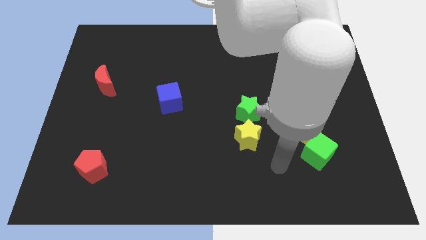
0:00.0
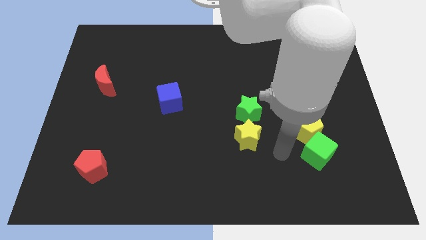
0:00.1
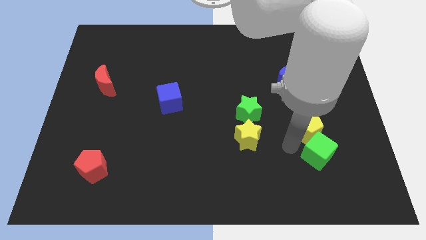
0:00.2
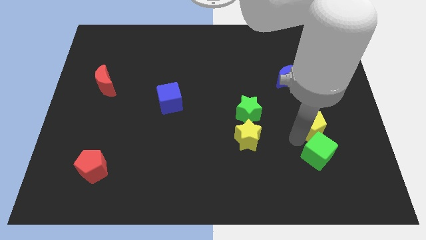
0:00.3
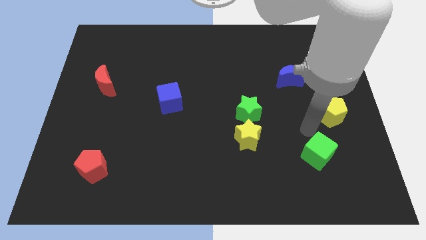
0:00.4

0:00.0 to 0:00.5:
pull the green cube apart from the yellow pentagon

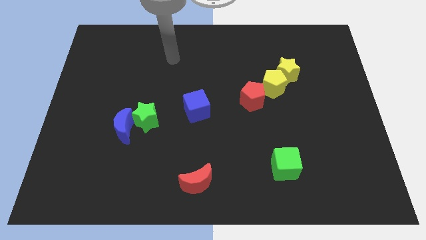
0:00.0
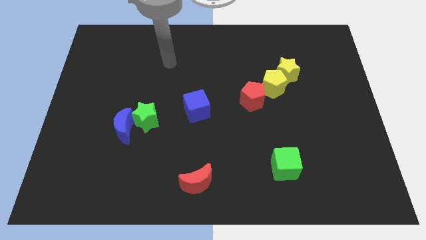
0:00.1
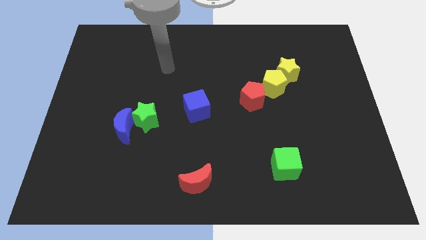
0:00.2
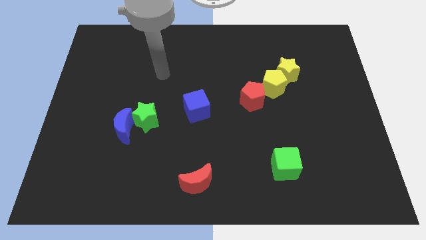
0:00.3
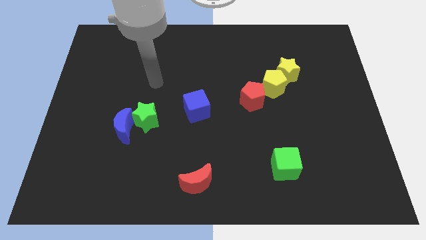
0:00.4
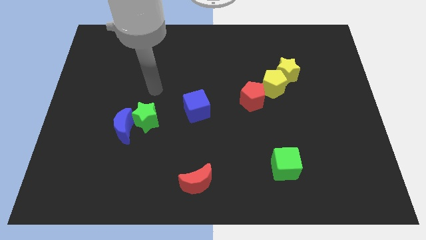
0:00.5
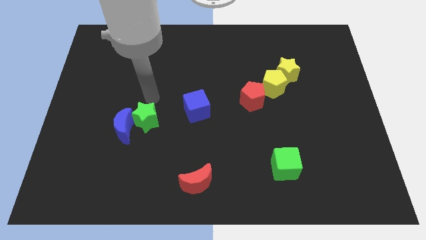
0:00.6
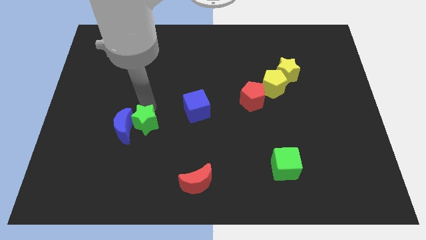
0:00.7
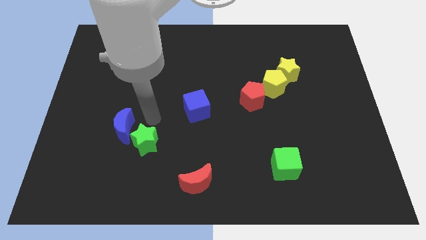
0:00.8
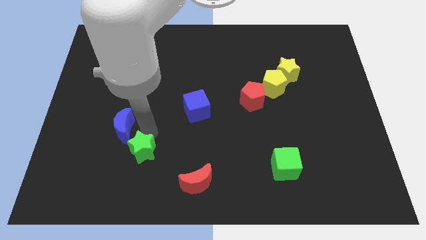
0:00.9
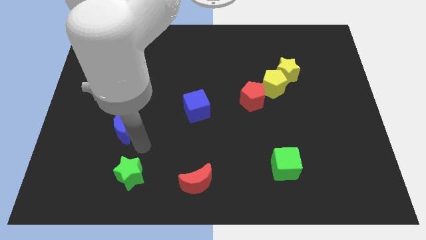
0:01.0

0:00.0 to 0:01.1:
move the blue moon away from the green star

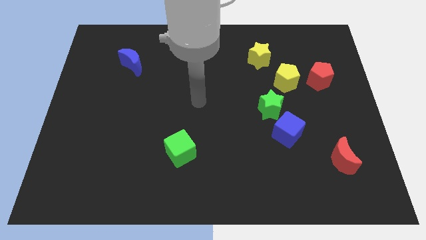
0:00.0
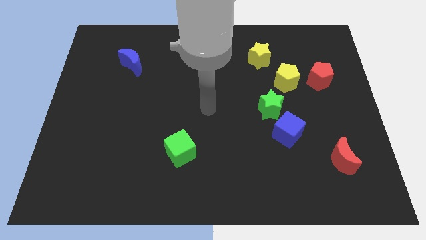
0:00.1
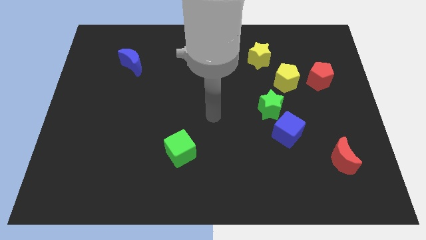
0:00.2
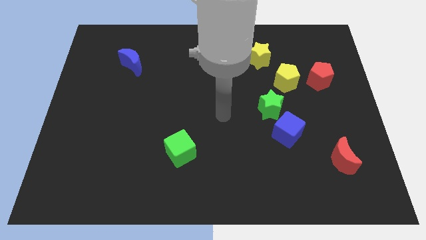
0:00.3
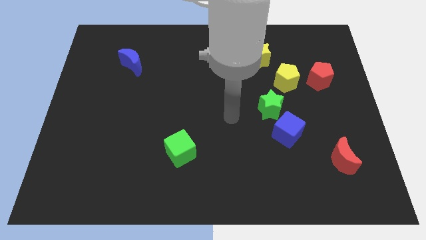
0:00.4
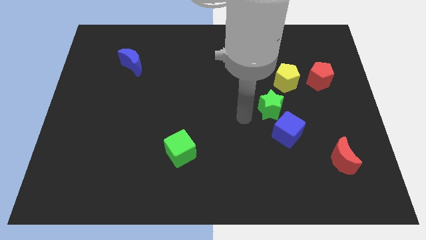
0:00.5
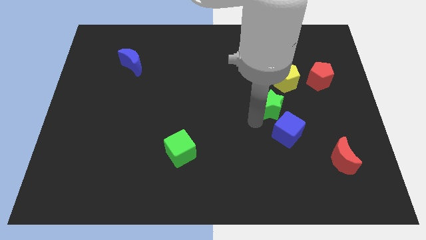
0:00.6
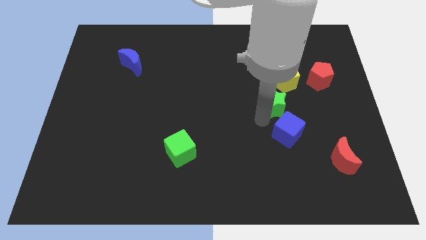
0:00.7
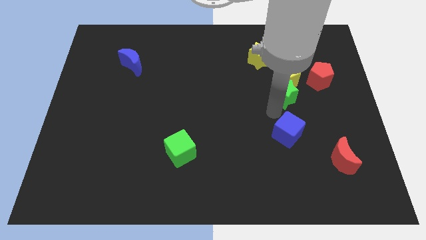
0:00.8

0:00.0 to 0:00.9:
separate the blue cube from the green star

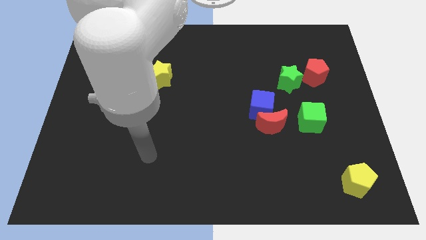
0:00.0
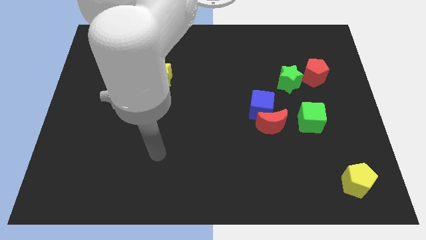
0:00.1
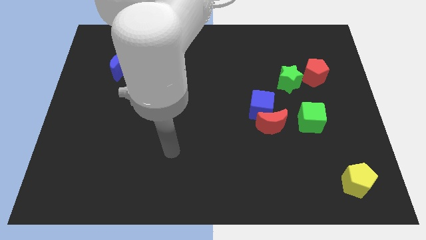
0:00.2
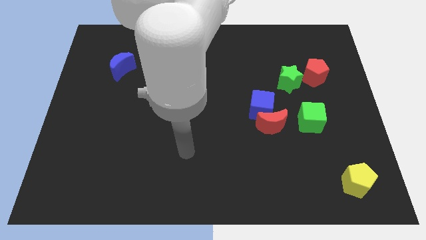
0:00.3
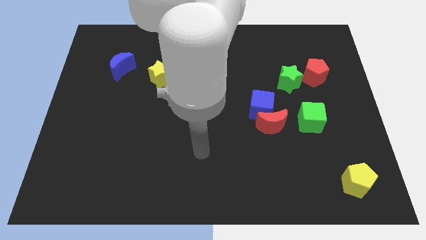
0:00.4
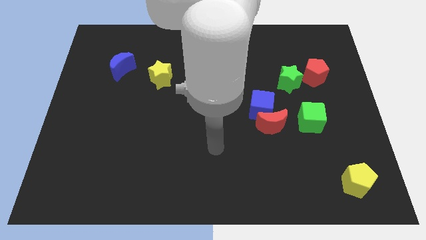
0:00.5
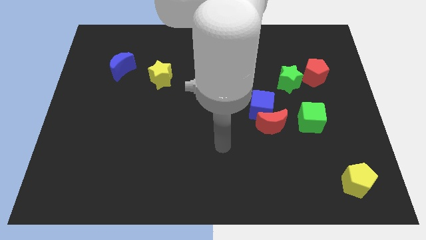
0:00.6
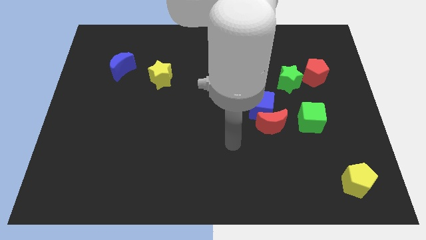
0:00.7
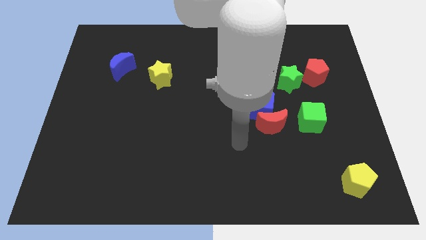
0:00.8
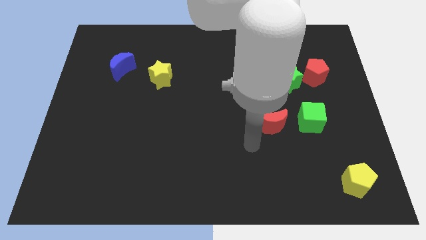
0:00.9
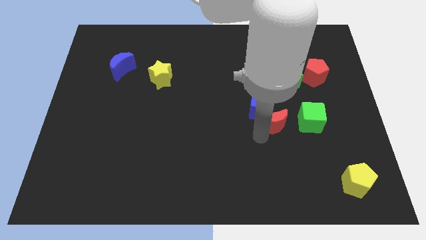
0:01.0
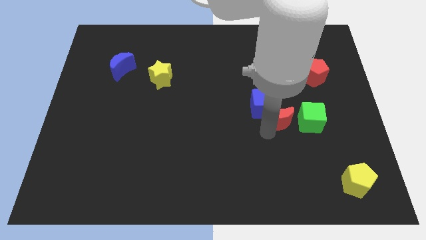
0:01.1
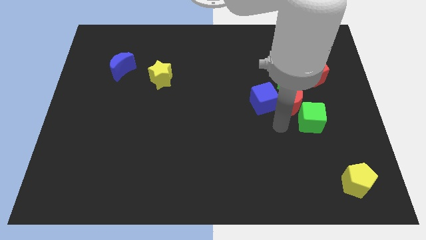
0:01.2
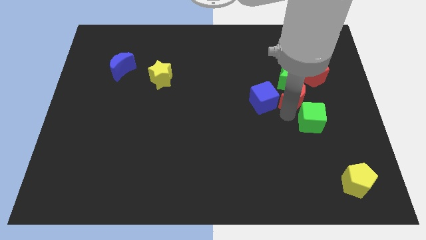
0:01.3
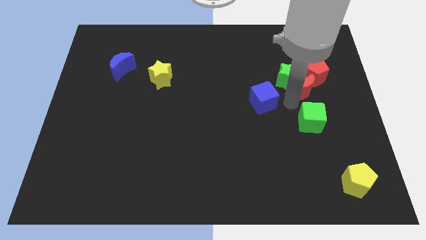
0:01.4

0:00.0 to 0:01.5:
move the blue cube away from the red moon

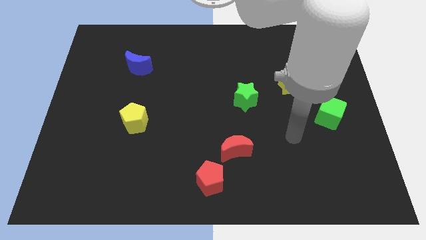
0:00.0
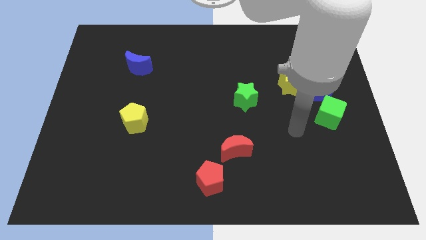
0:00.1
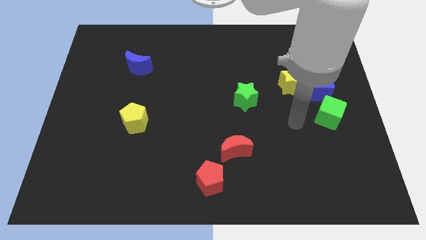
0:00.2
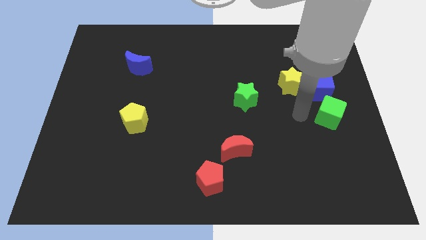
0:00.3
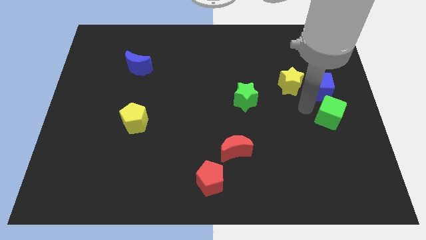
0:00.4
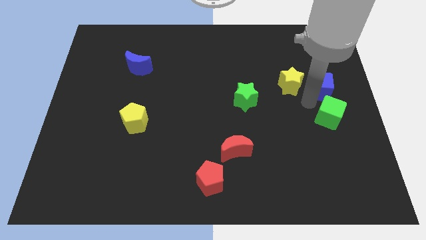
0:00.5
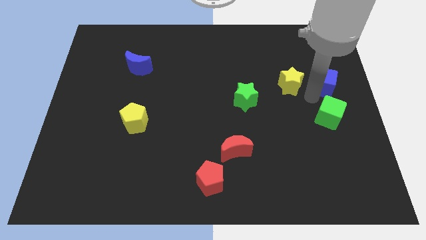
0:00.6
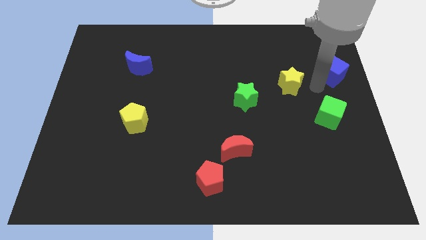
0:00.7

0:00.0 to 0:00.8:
separate the yellow star from the blue cube

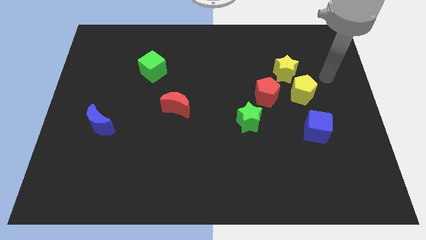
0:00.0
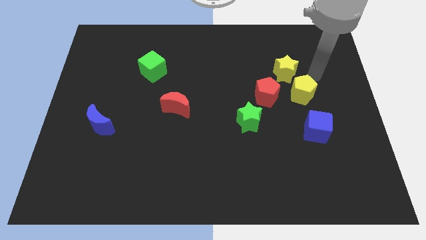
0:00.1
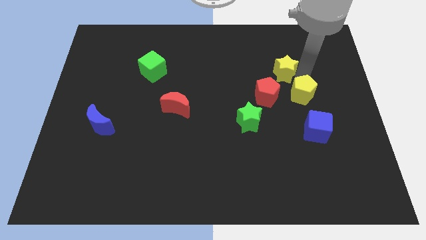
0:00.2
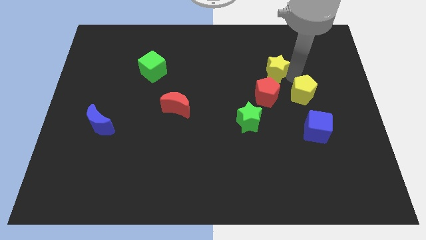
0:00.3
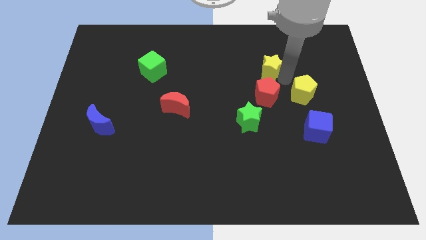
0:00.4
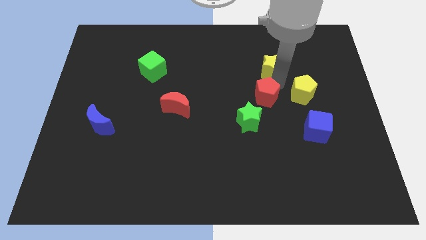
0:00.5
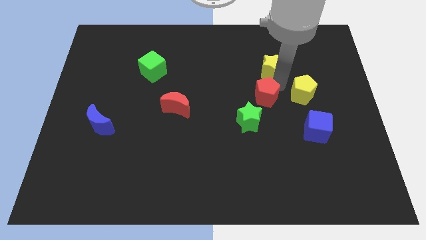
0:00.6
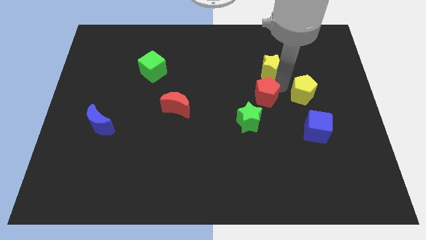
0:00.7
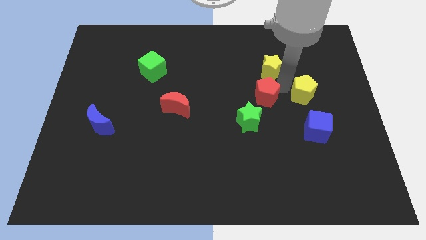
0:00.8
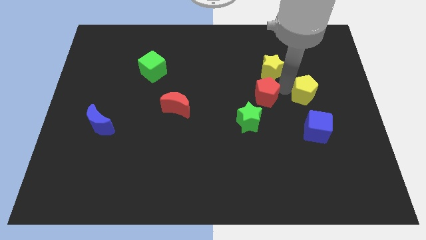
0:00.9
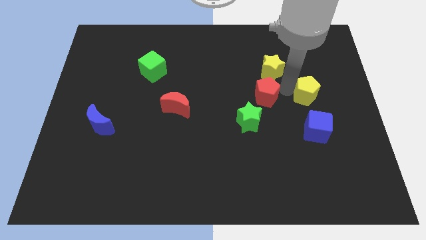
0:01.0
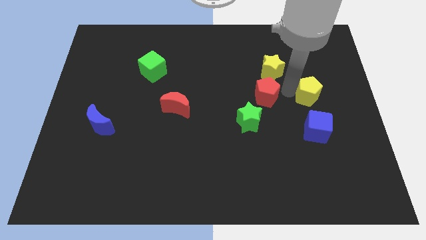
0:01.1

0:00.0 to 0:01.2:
move the yellow pentagon away from the yellow star and red pentagon

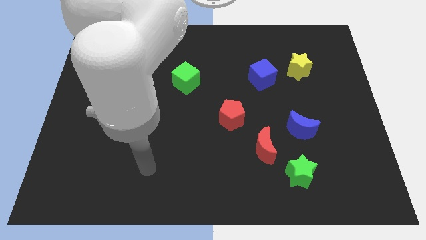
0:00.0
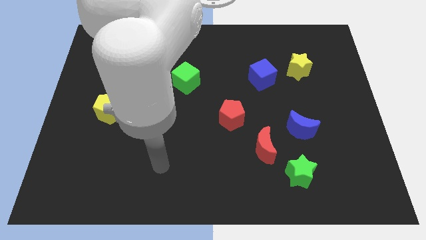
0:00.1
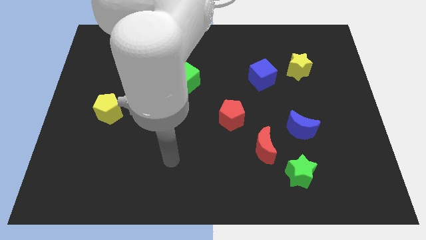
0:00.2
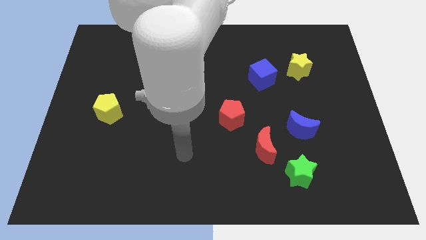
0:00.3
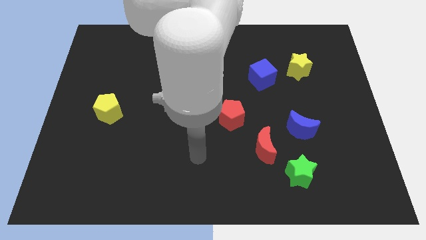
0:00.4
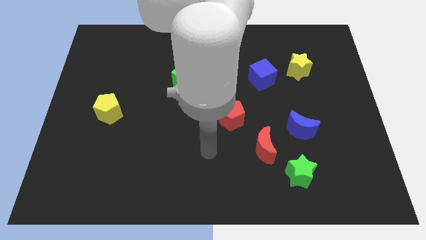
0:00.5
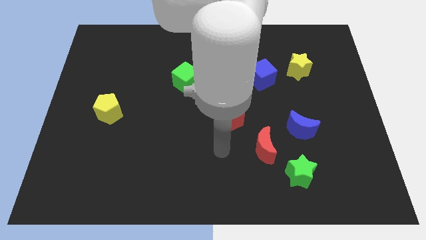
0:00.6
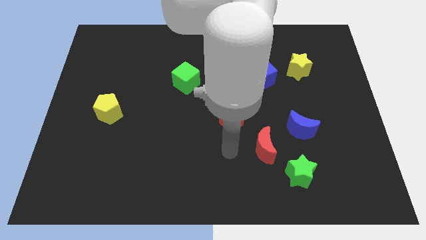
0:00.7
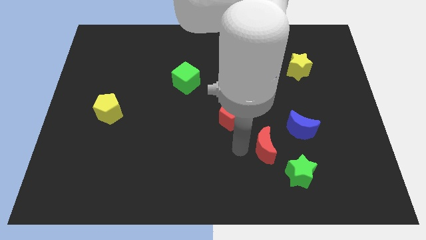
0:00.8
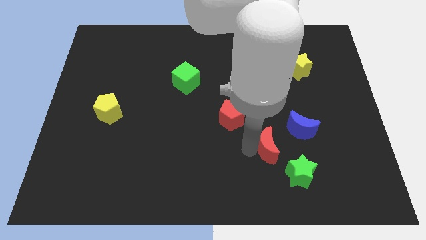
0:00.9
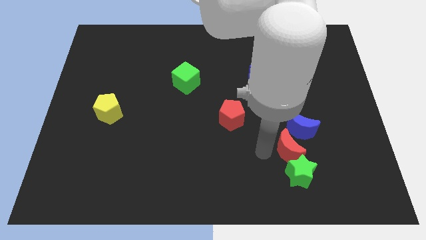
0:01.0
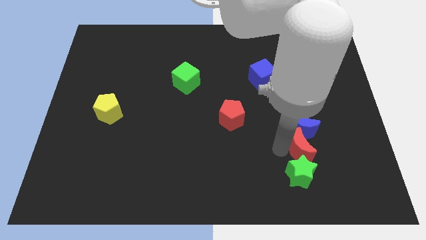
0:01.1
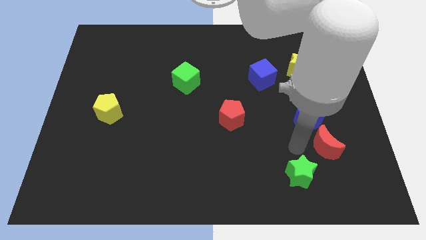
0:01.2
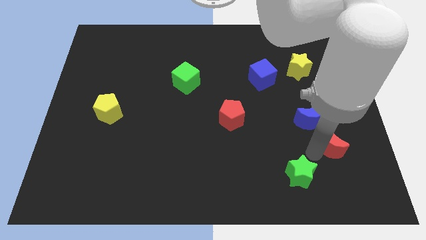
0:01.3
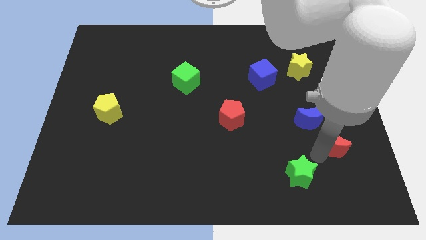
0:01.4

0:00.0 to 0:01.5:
pull the green star apart from the red moon

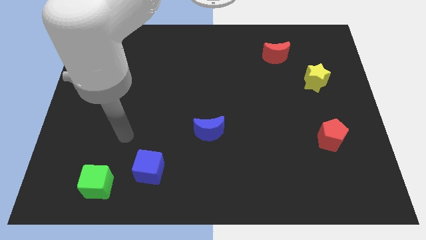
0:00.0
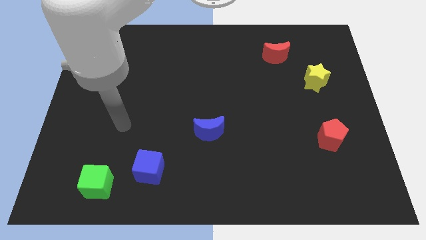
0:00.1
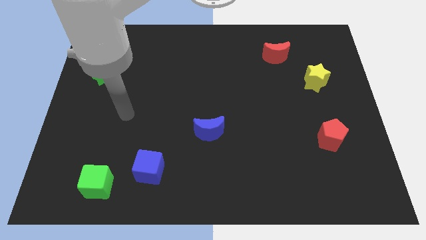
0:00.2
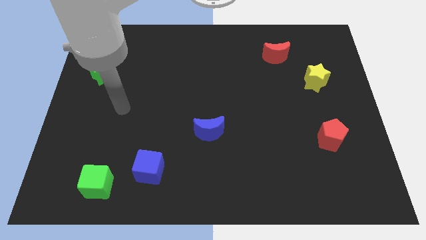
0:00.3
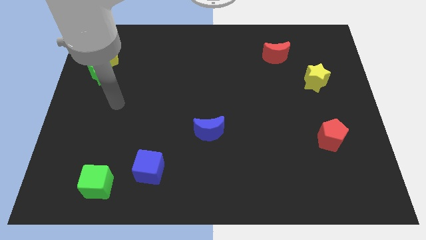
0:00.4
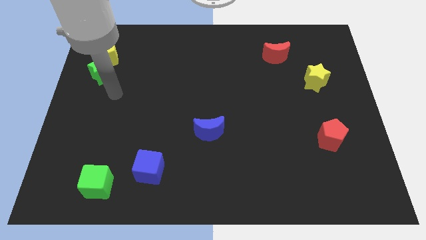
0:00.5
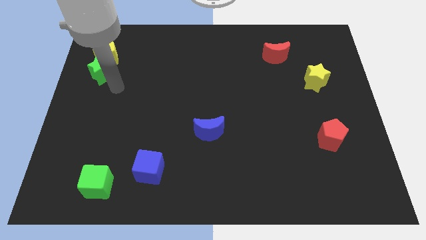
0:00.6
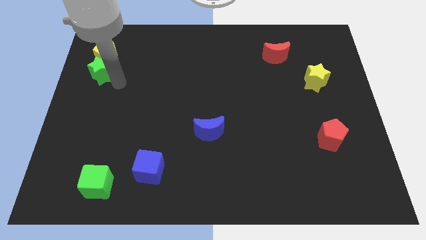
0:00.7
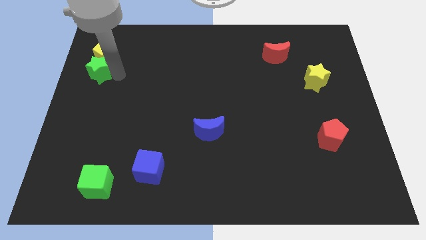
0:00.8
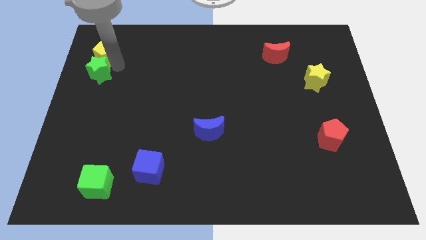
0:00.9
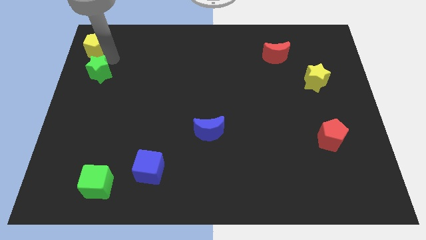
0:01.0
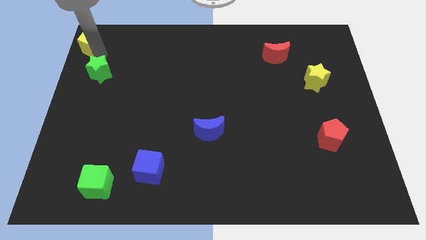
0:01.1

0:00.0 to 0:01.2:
pull the green star apart from the yellow pentagon

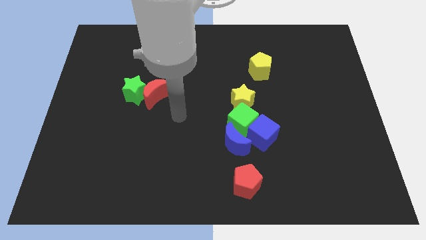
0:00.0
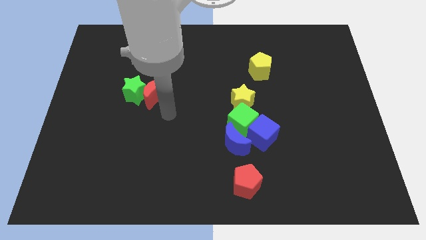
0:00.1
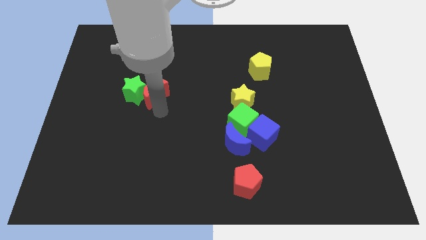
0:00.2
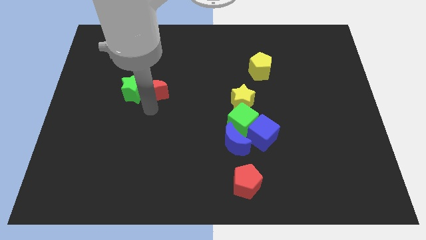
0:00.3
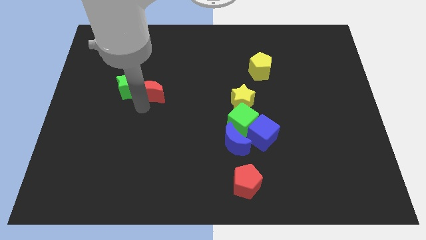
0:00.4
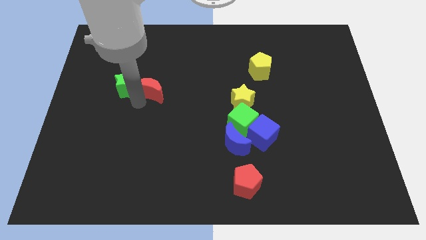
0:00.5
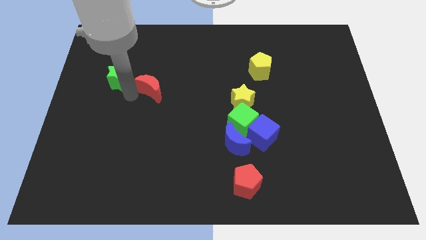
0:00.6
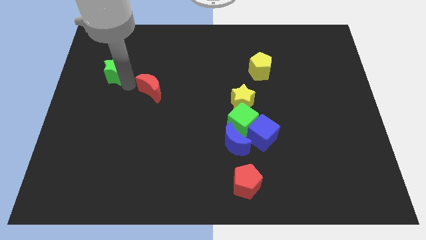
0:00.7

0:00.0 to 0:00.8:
separate the red moon from the green star
